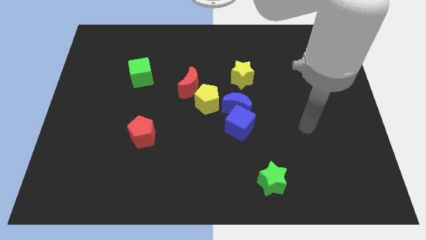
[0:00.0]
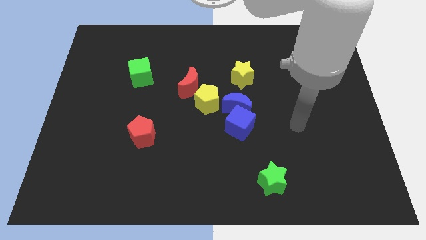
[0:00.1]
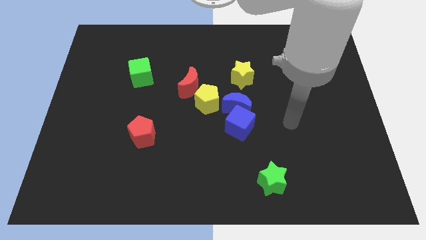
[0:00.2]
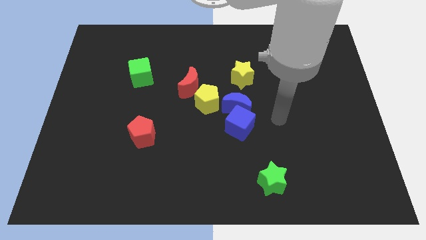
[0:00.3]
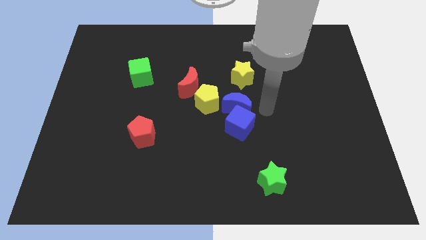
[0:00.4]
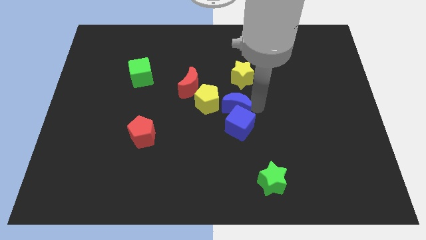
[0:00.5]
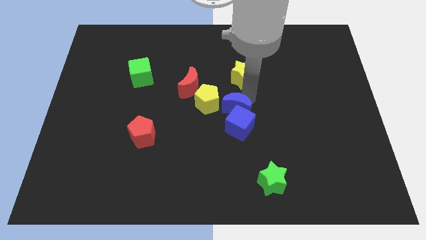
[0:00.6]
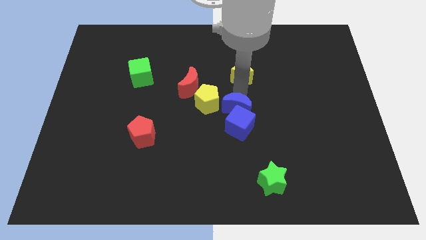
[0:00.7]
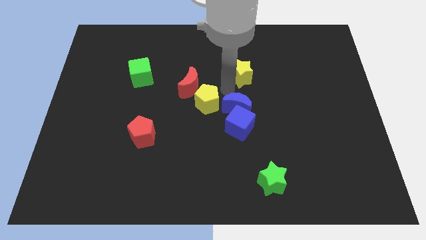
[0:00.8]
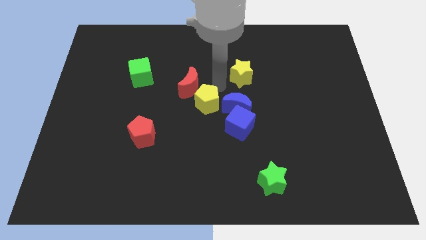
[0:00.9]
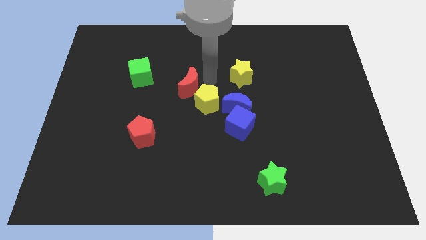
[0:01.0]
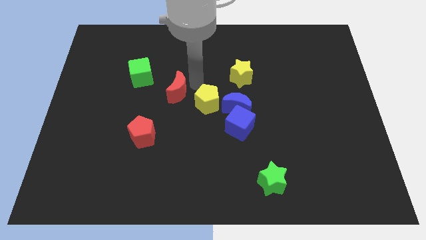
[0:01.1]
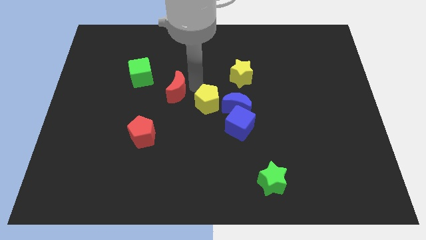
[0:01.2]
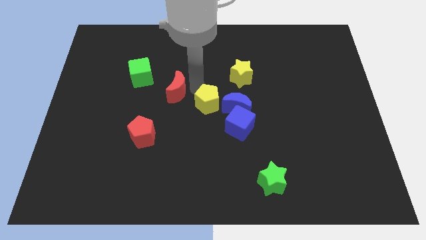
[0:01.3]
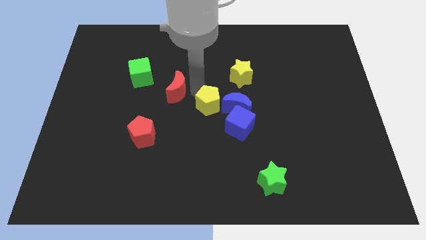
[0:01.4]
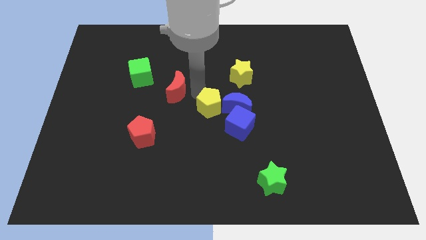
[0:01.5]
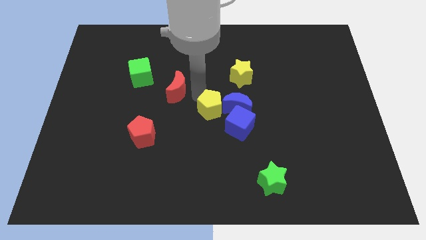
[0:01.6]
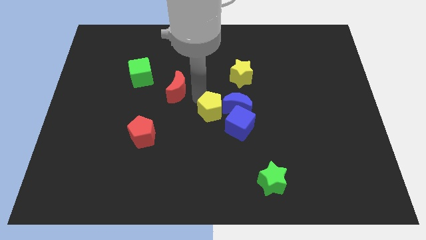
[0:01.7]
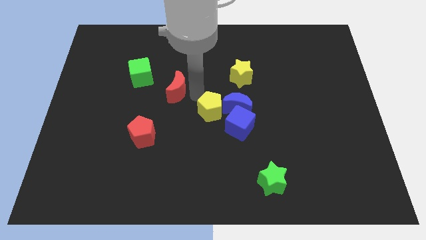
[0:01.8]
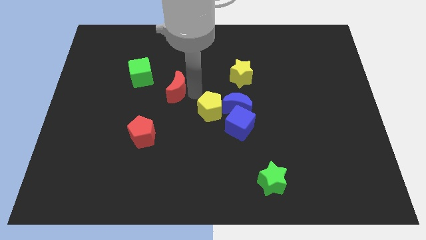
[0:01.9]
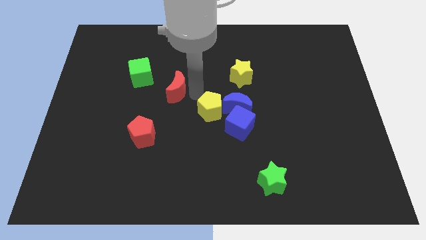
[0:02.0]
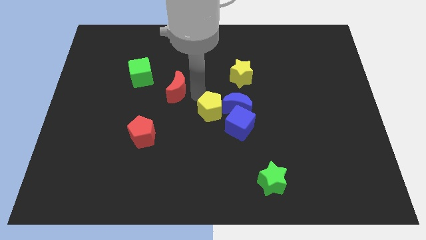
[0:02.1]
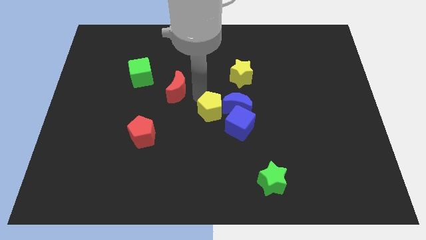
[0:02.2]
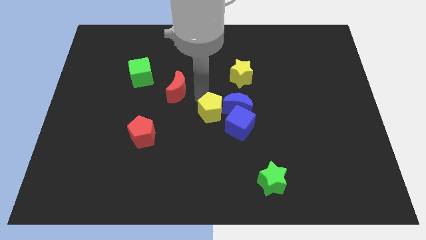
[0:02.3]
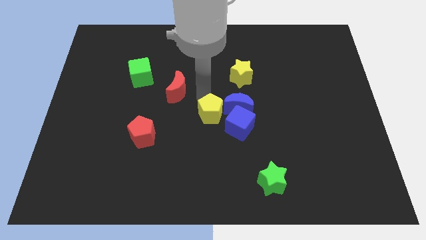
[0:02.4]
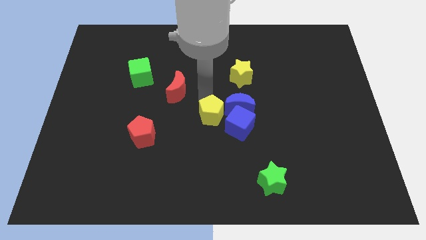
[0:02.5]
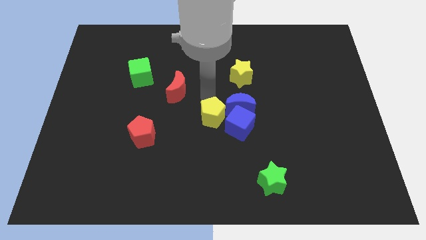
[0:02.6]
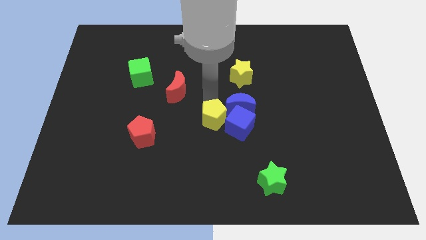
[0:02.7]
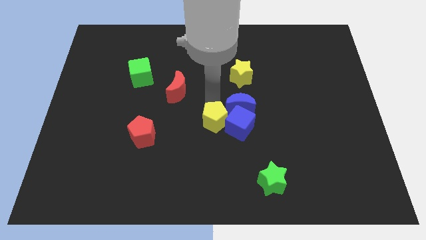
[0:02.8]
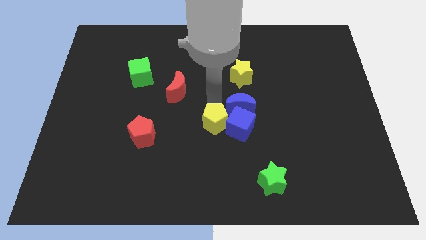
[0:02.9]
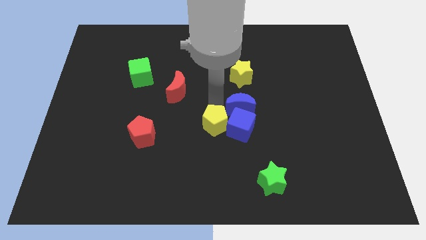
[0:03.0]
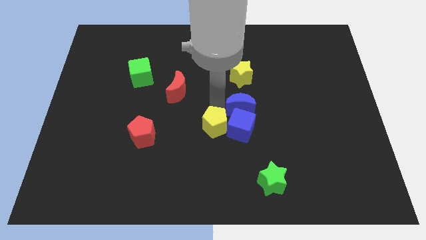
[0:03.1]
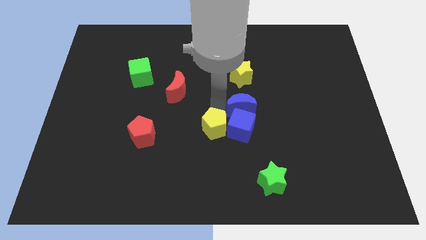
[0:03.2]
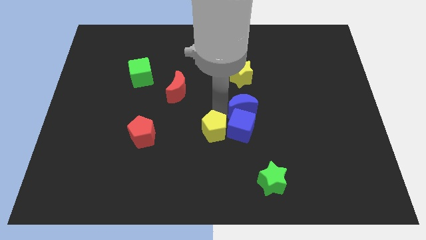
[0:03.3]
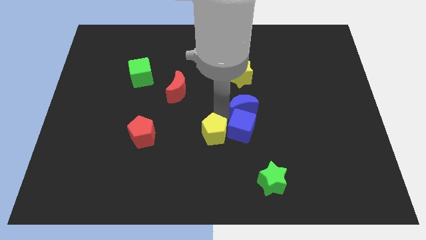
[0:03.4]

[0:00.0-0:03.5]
slightly push the yellow pentagon down and to the right diagonally

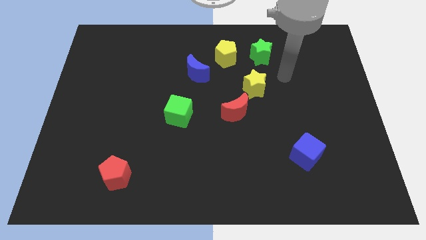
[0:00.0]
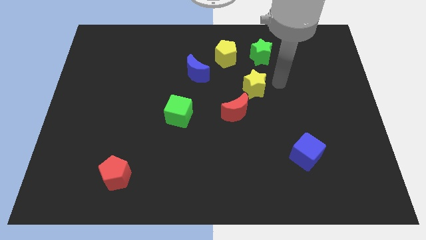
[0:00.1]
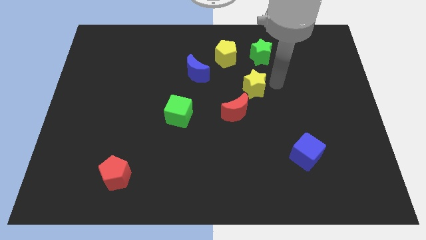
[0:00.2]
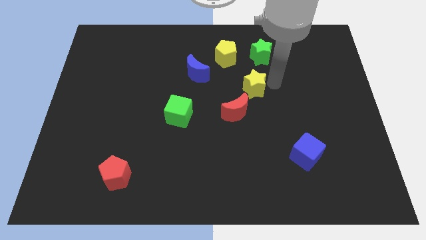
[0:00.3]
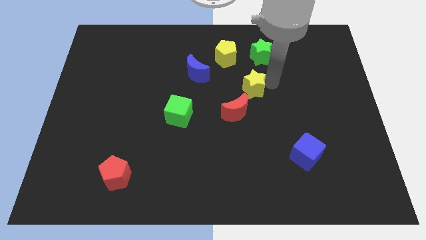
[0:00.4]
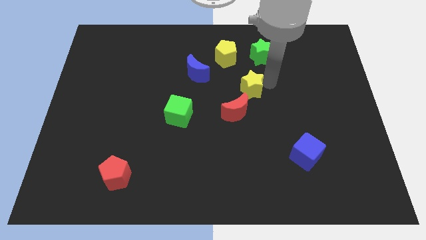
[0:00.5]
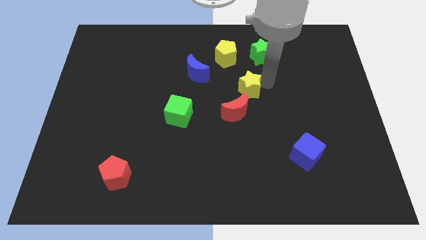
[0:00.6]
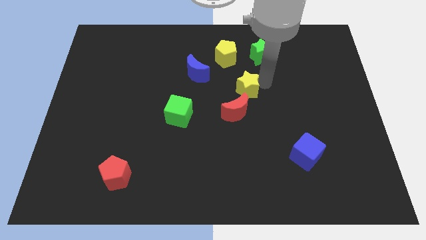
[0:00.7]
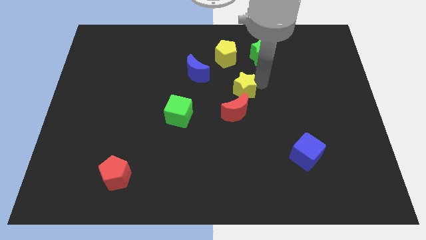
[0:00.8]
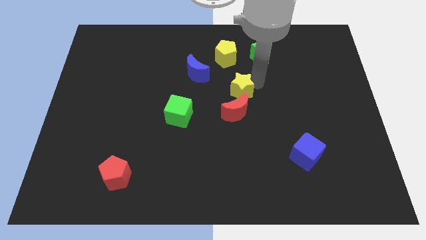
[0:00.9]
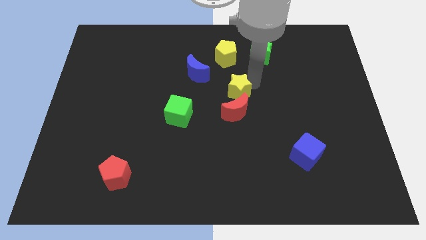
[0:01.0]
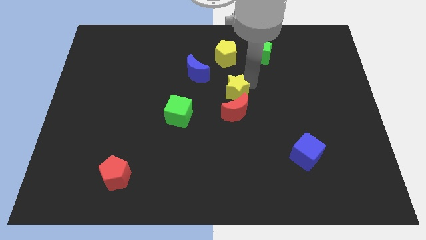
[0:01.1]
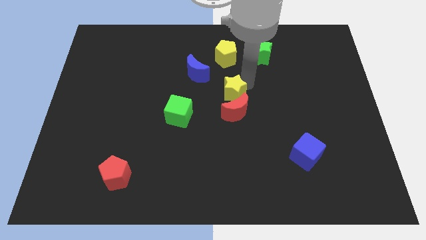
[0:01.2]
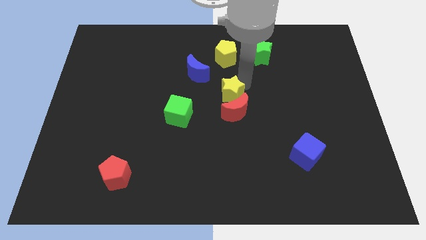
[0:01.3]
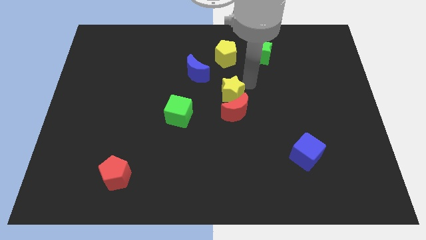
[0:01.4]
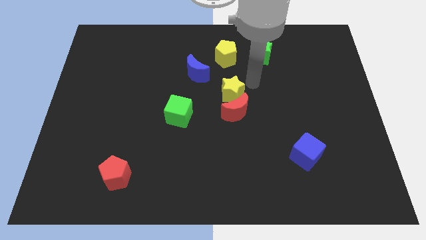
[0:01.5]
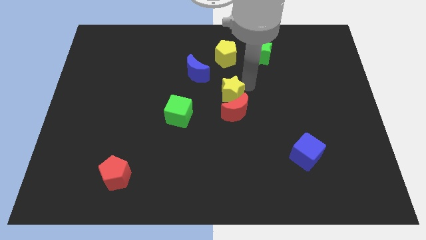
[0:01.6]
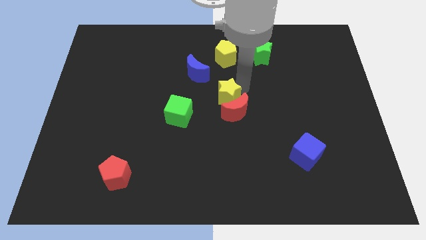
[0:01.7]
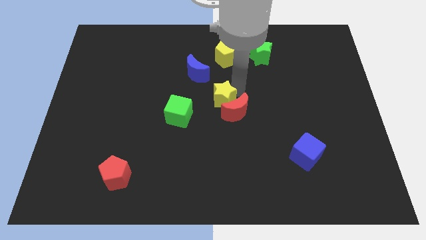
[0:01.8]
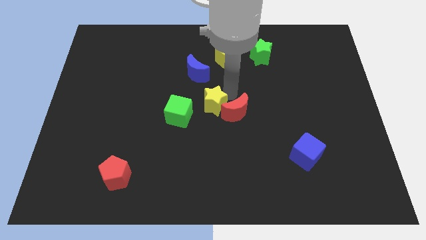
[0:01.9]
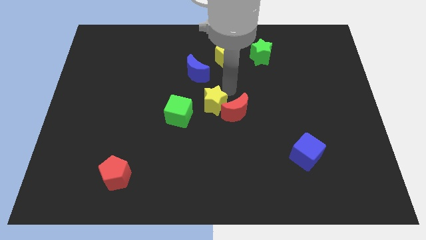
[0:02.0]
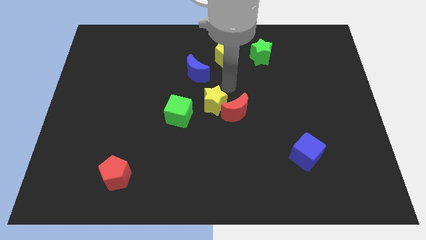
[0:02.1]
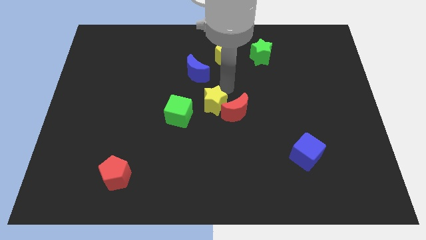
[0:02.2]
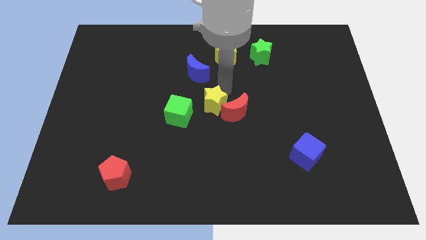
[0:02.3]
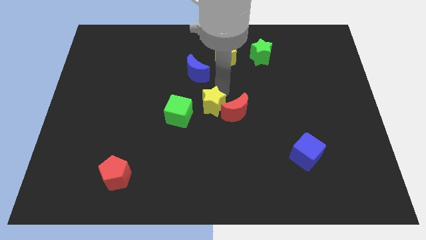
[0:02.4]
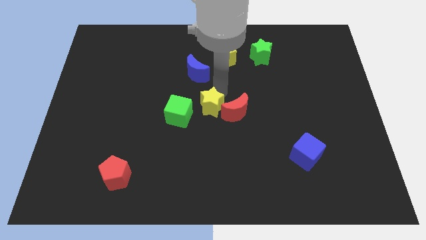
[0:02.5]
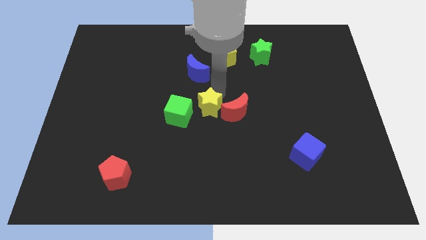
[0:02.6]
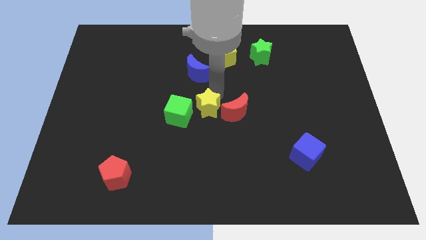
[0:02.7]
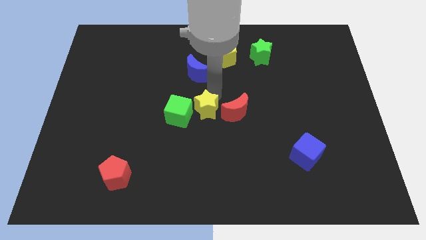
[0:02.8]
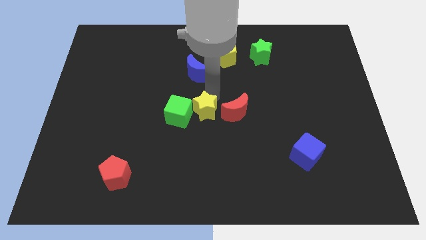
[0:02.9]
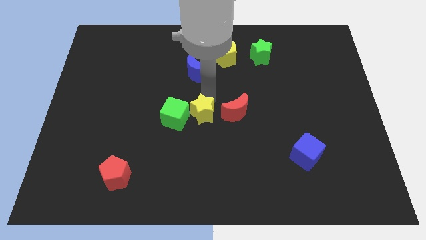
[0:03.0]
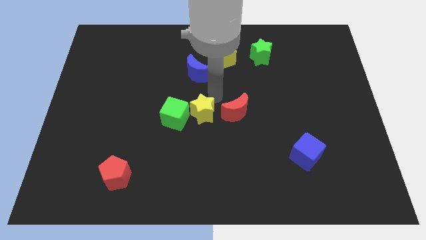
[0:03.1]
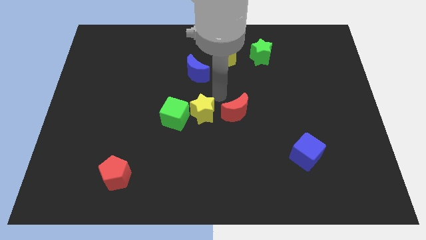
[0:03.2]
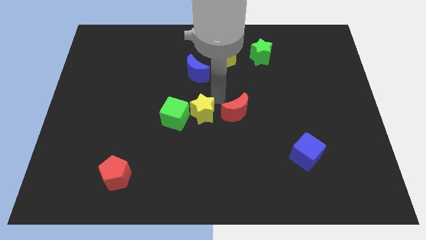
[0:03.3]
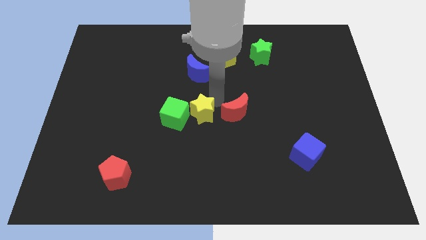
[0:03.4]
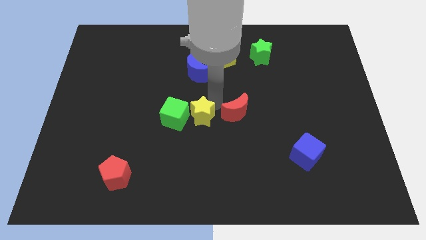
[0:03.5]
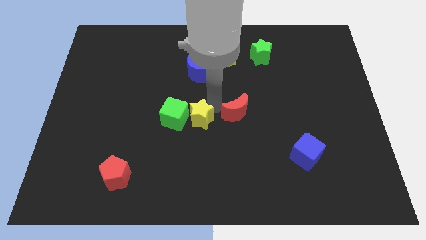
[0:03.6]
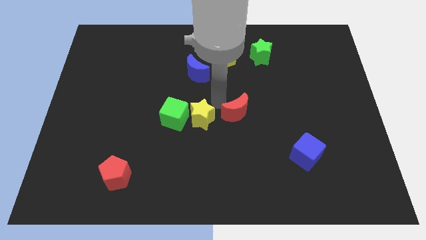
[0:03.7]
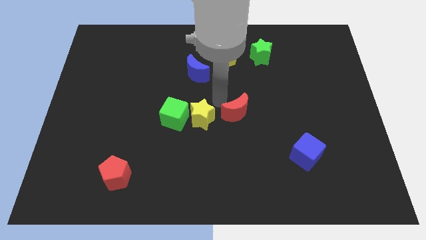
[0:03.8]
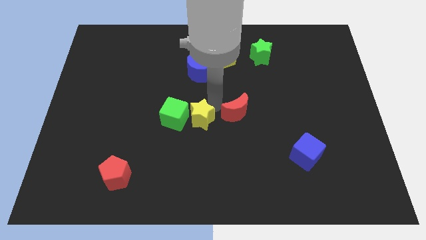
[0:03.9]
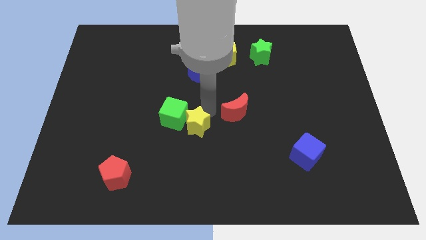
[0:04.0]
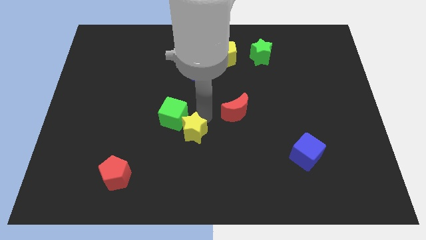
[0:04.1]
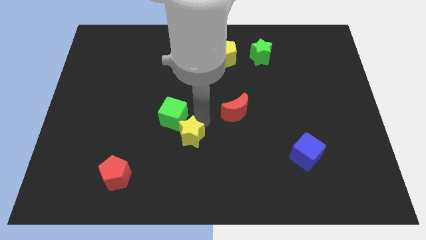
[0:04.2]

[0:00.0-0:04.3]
slide the yellow star down and to the left diagonally
